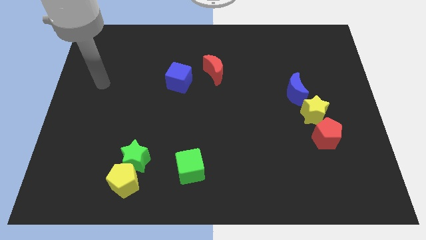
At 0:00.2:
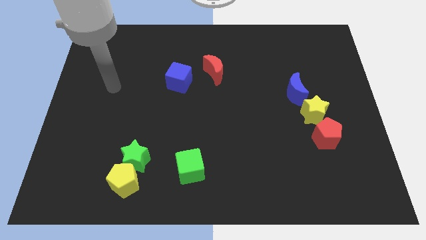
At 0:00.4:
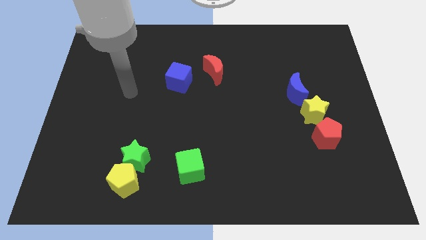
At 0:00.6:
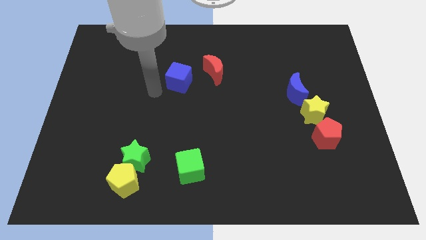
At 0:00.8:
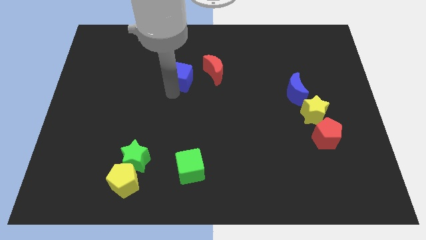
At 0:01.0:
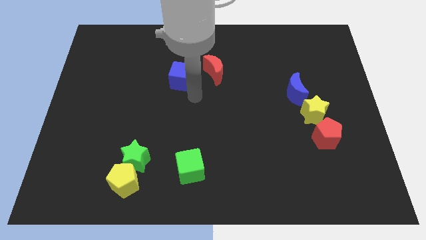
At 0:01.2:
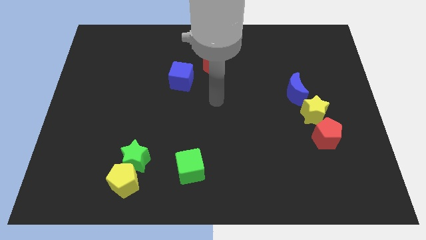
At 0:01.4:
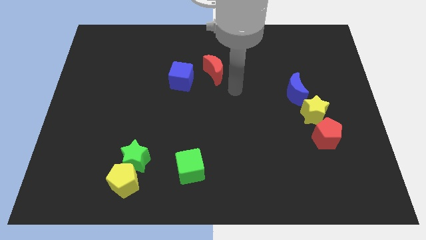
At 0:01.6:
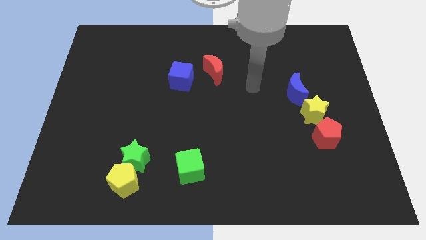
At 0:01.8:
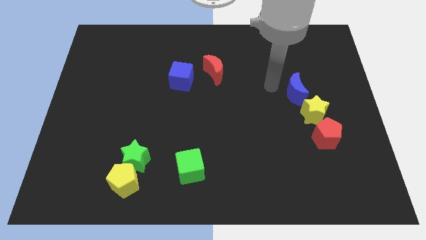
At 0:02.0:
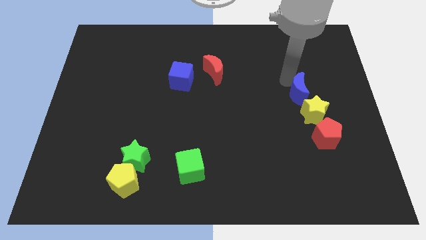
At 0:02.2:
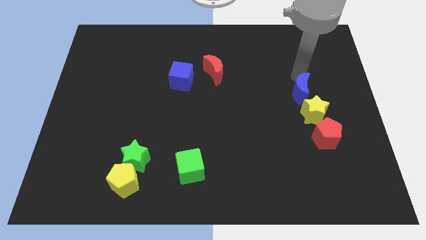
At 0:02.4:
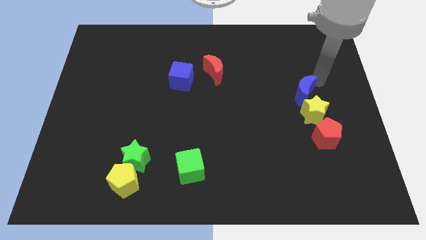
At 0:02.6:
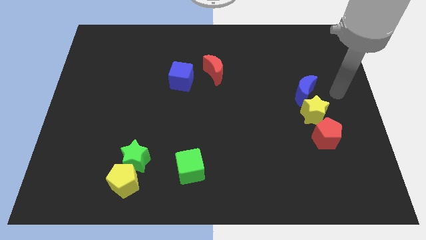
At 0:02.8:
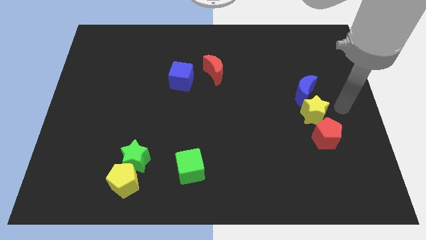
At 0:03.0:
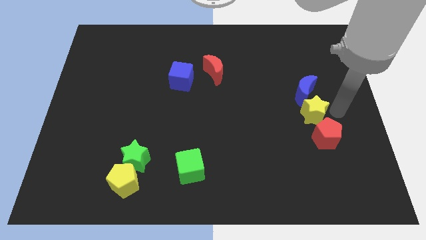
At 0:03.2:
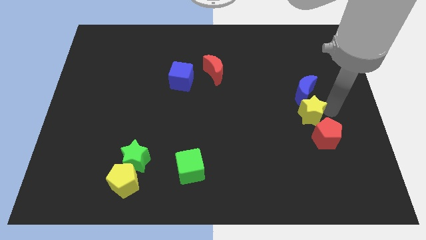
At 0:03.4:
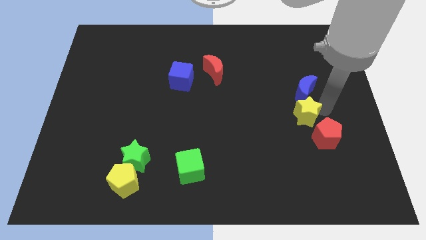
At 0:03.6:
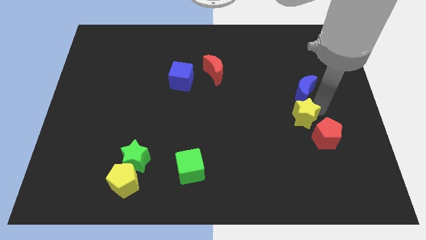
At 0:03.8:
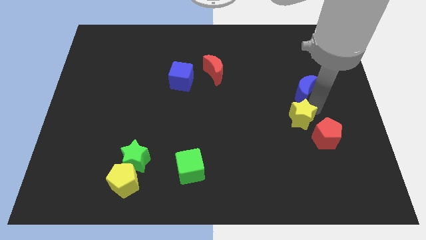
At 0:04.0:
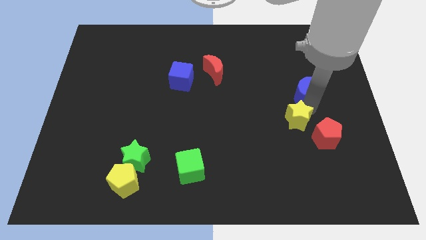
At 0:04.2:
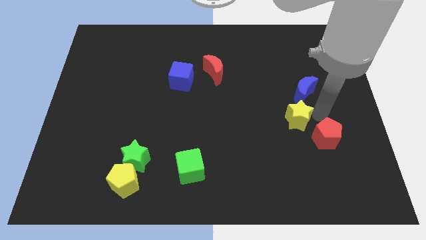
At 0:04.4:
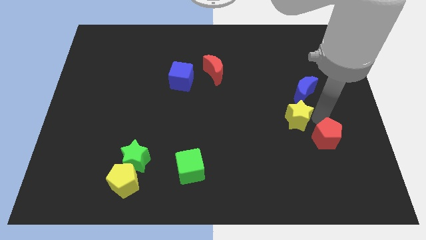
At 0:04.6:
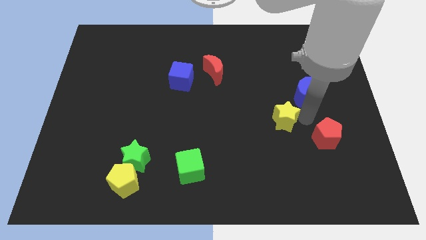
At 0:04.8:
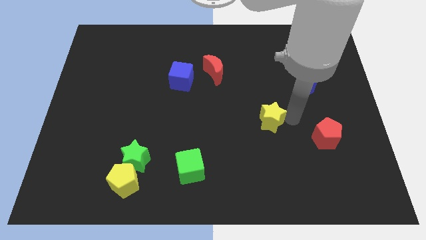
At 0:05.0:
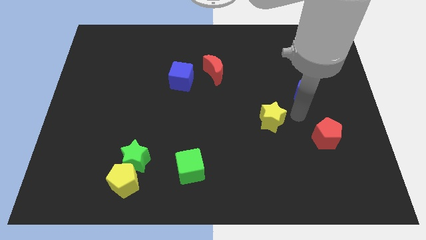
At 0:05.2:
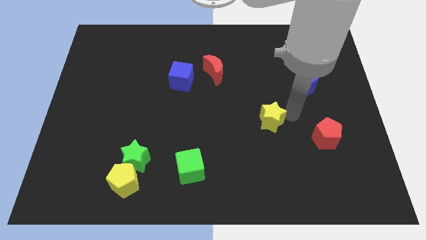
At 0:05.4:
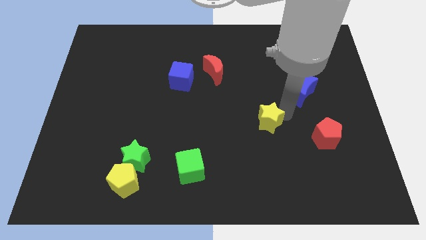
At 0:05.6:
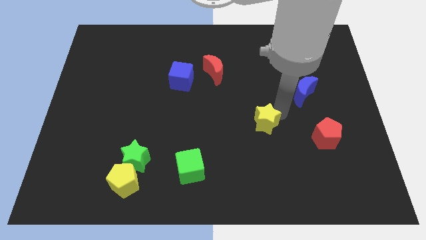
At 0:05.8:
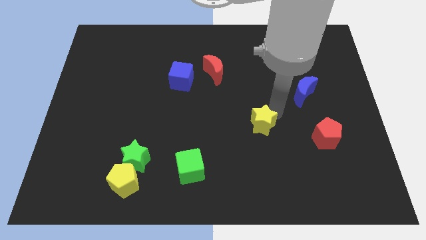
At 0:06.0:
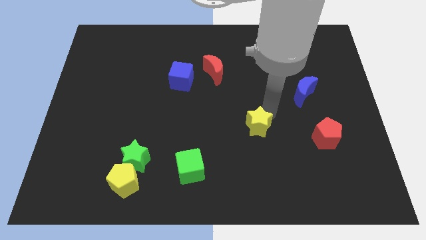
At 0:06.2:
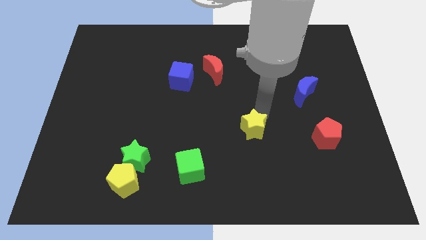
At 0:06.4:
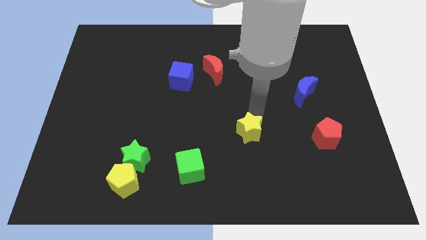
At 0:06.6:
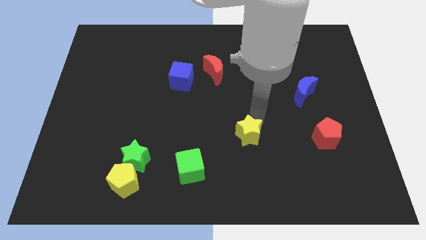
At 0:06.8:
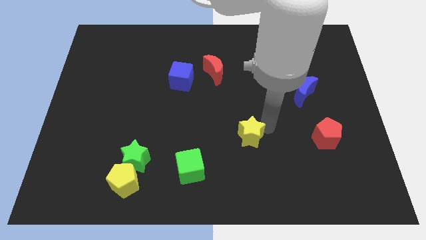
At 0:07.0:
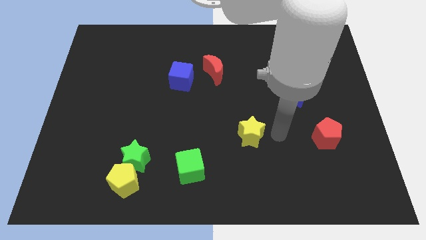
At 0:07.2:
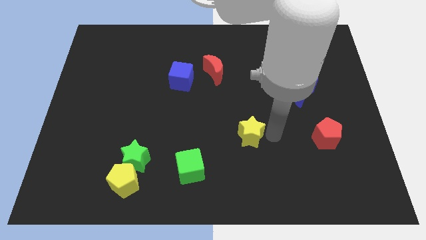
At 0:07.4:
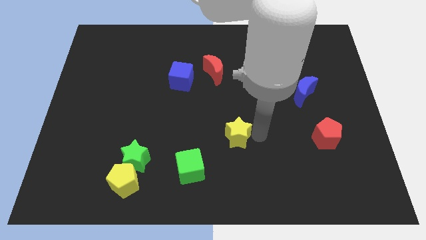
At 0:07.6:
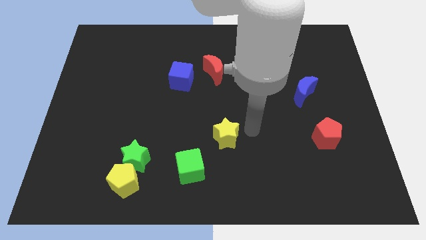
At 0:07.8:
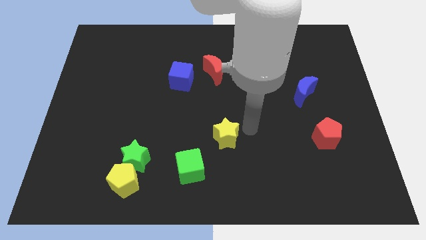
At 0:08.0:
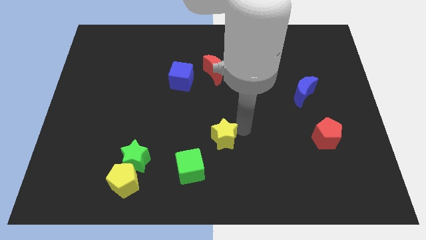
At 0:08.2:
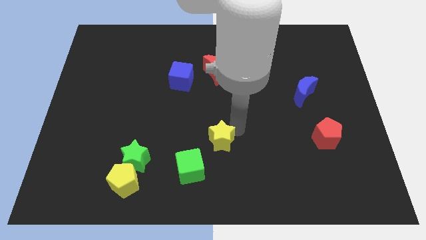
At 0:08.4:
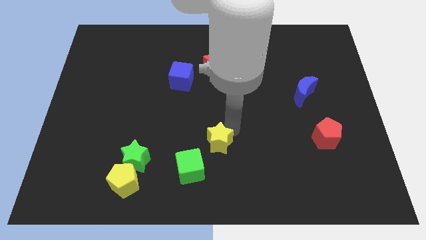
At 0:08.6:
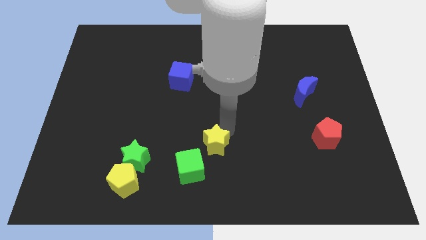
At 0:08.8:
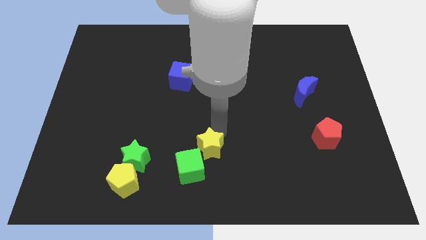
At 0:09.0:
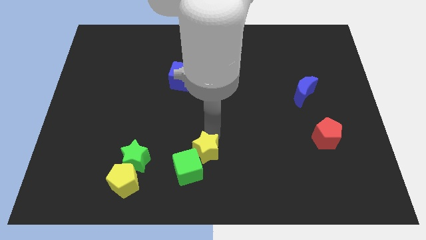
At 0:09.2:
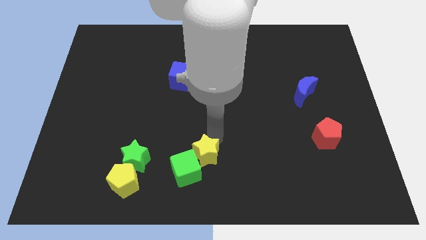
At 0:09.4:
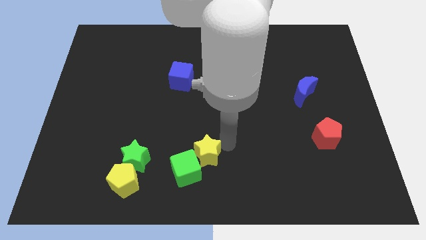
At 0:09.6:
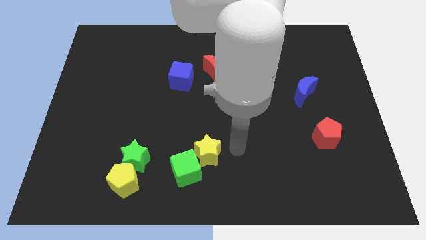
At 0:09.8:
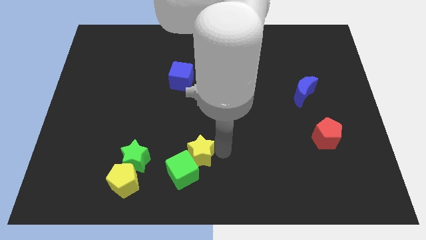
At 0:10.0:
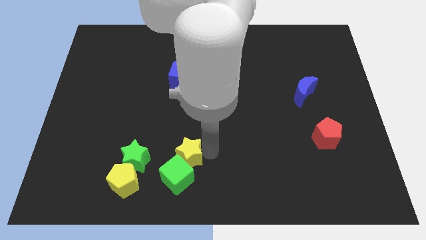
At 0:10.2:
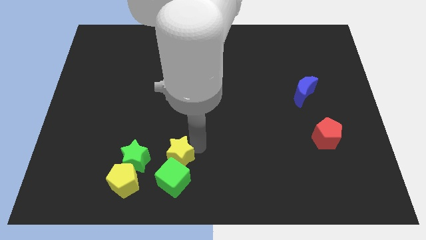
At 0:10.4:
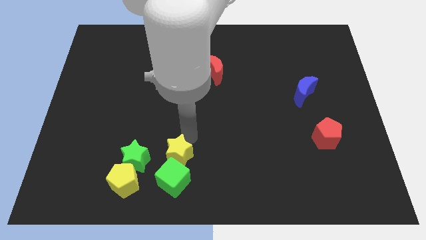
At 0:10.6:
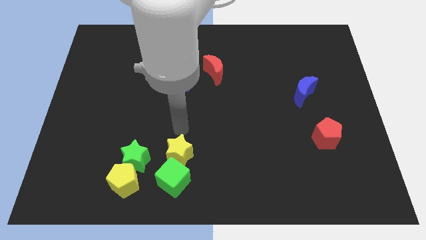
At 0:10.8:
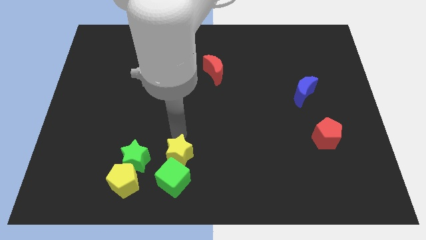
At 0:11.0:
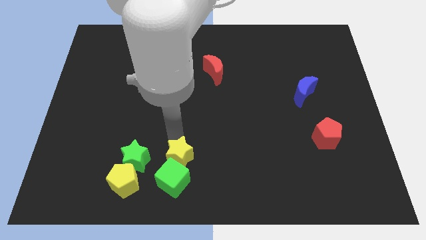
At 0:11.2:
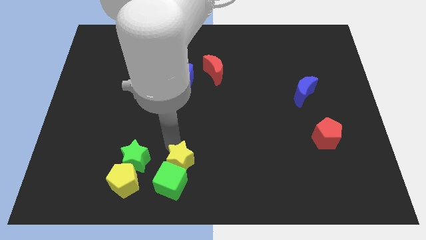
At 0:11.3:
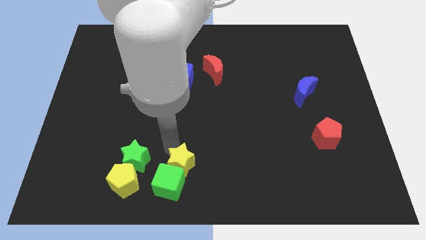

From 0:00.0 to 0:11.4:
push the yellow star to the right of the yellow pentagon

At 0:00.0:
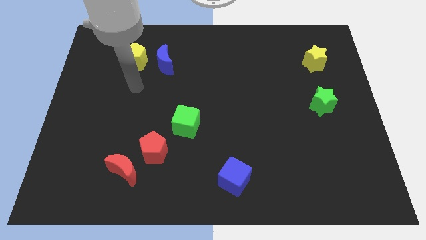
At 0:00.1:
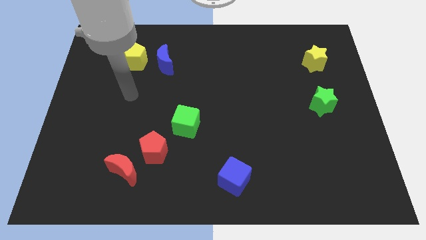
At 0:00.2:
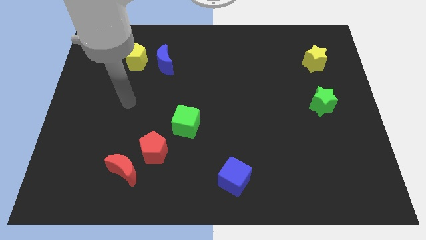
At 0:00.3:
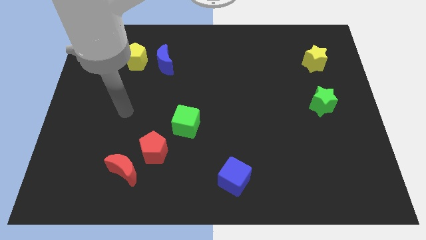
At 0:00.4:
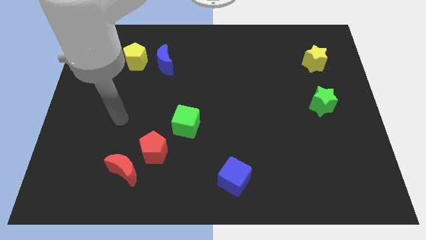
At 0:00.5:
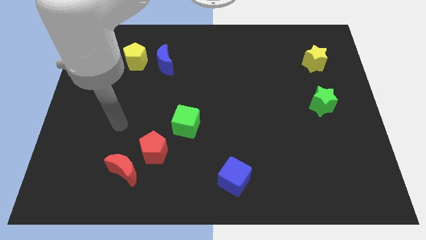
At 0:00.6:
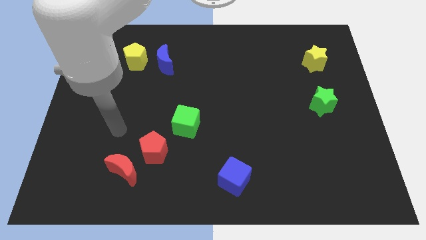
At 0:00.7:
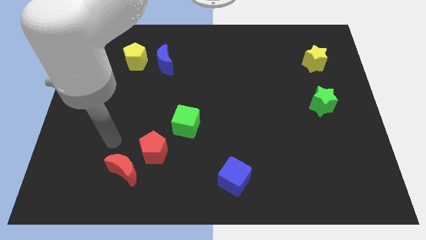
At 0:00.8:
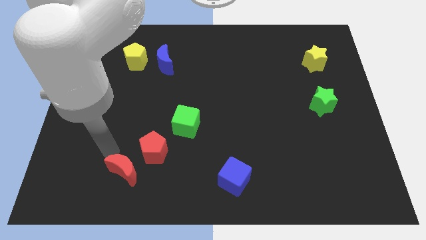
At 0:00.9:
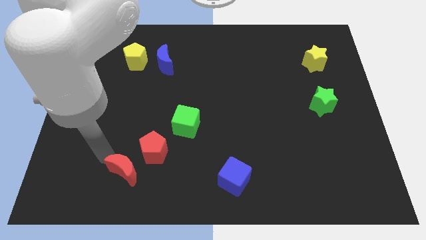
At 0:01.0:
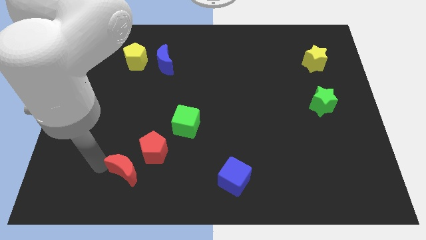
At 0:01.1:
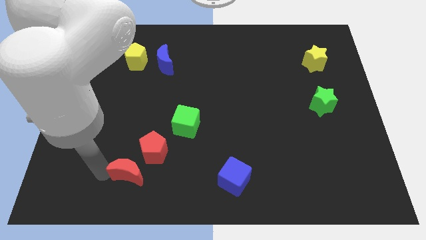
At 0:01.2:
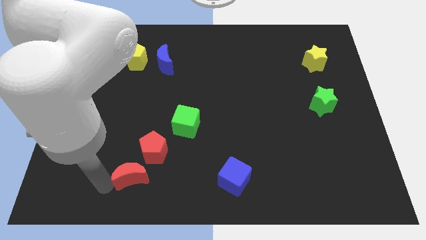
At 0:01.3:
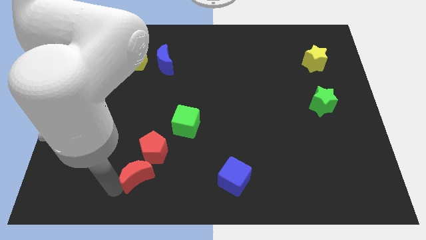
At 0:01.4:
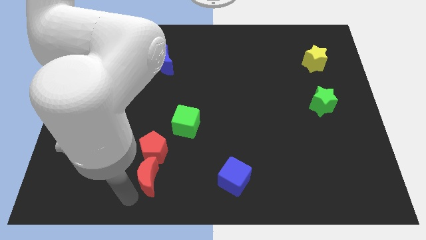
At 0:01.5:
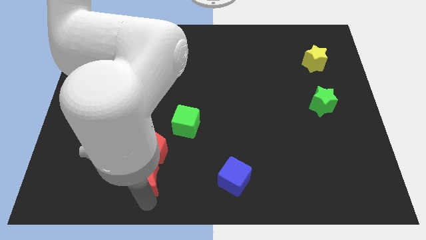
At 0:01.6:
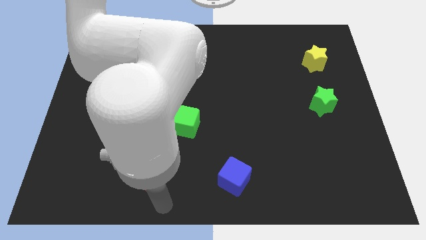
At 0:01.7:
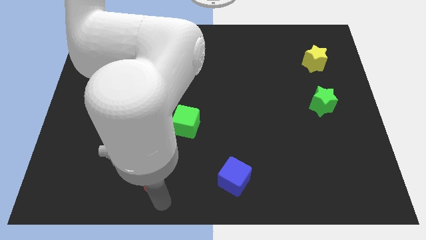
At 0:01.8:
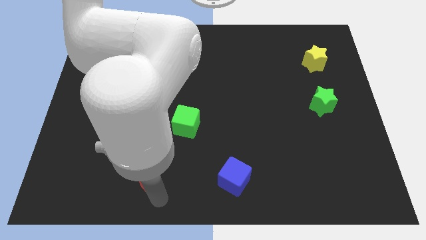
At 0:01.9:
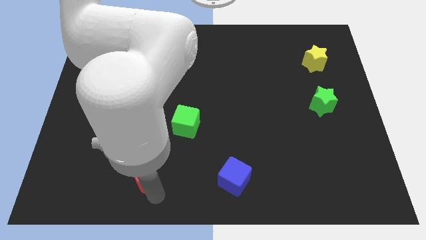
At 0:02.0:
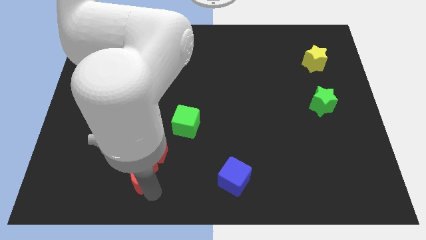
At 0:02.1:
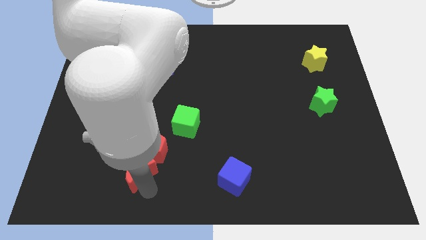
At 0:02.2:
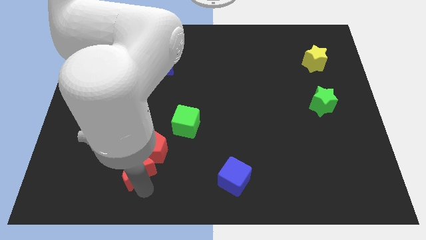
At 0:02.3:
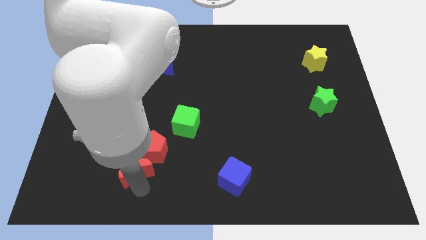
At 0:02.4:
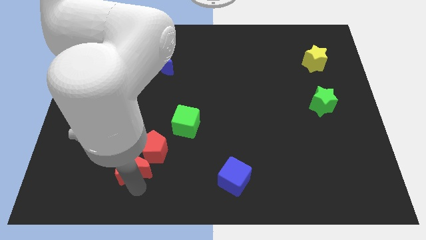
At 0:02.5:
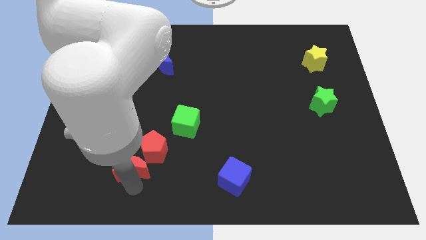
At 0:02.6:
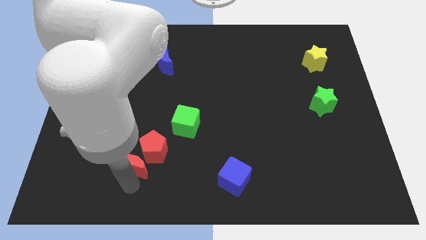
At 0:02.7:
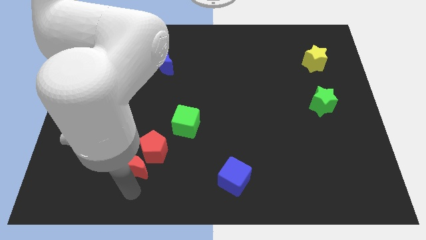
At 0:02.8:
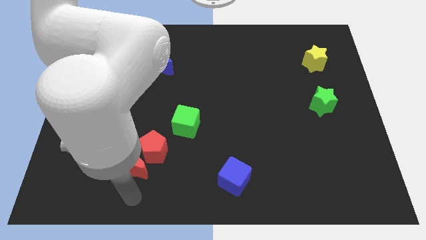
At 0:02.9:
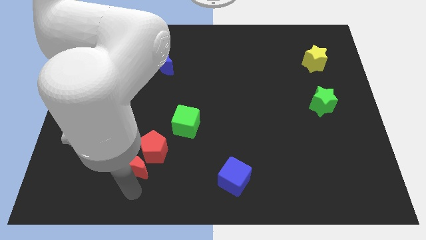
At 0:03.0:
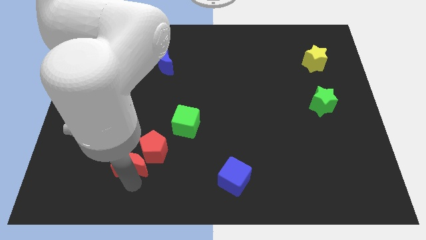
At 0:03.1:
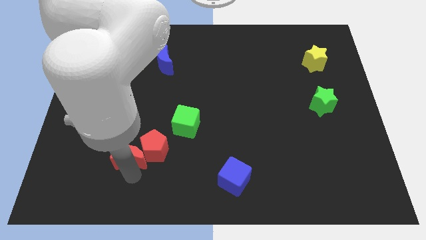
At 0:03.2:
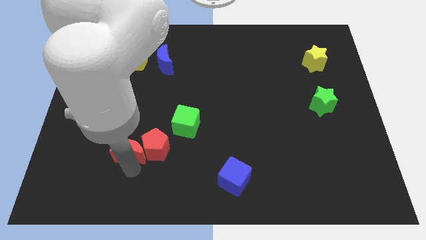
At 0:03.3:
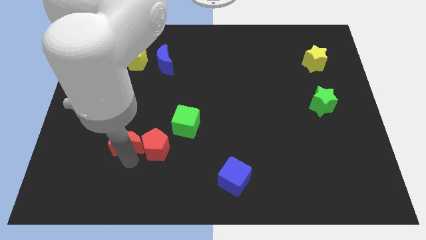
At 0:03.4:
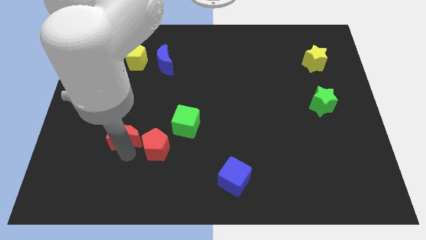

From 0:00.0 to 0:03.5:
slide the red moon to the left side of the green cube
